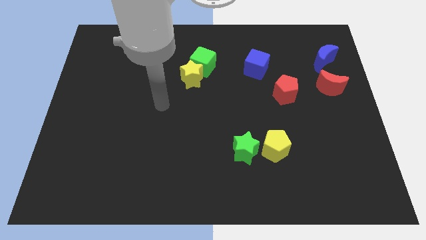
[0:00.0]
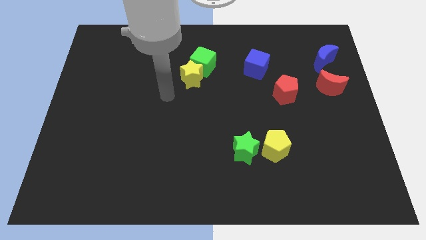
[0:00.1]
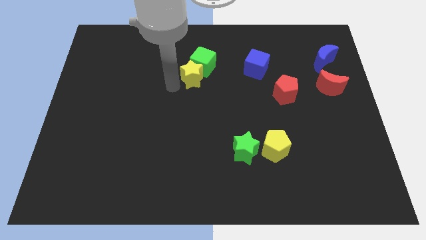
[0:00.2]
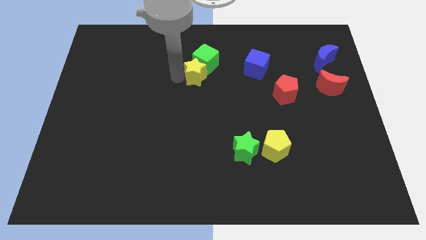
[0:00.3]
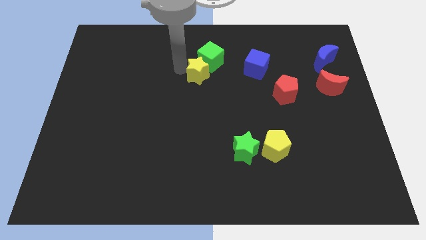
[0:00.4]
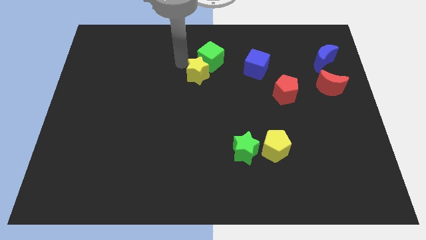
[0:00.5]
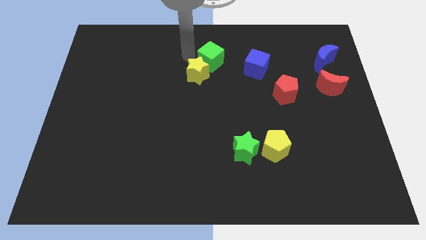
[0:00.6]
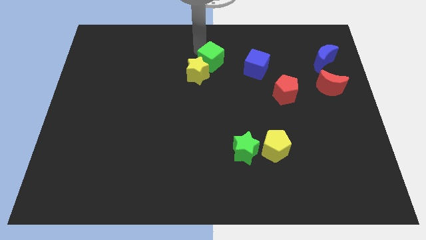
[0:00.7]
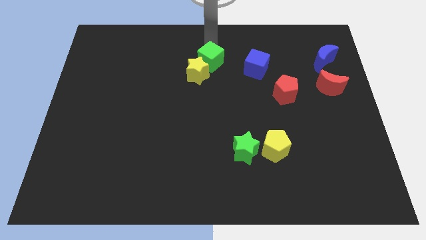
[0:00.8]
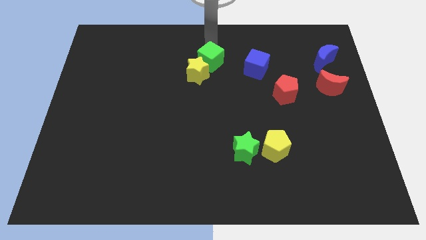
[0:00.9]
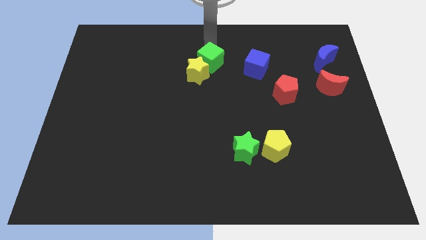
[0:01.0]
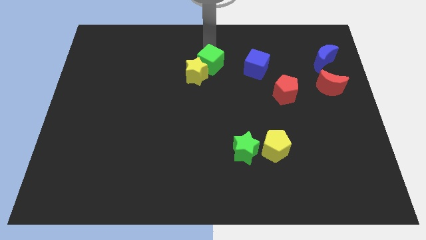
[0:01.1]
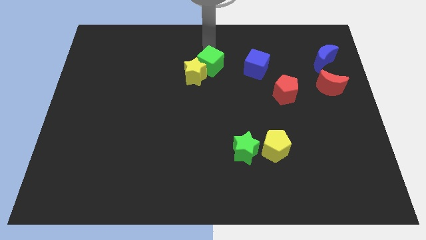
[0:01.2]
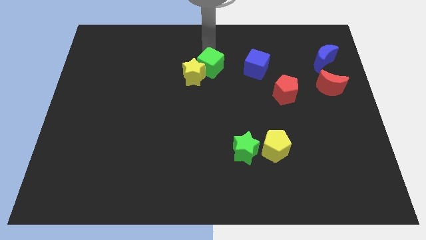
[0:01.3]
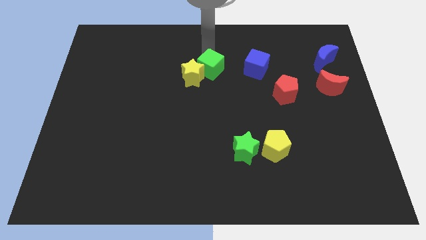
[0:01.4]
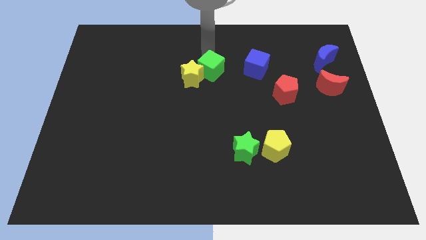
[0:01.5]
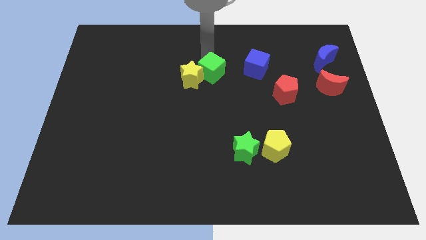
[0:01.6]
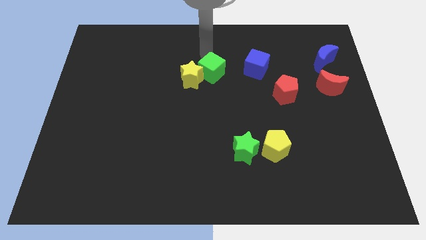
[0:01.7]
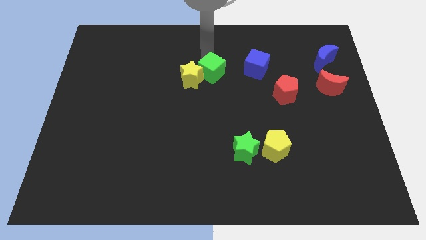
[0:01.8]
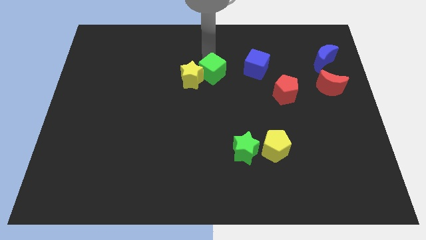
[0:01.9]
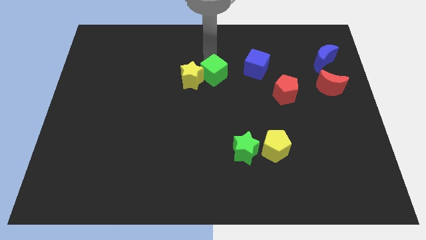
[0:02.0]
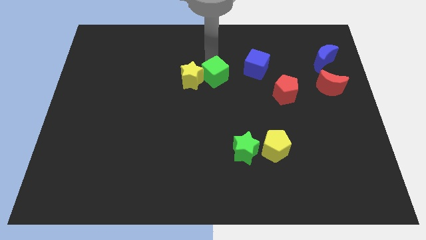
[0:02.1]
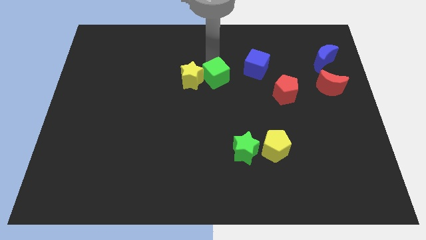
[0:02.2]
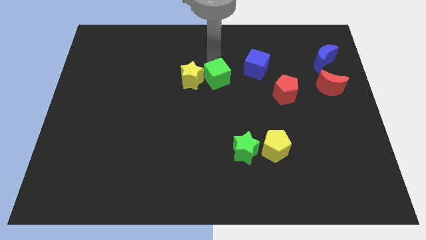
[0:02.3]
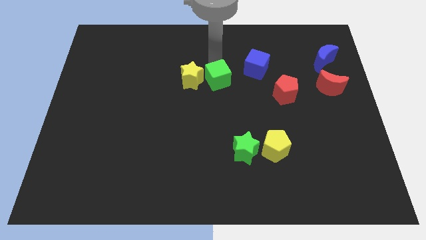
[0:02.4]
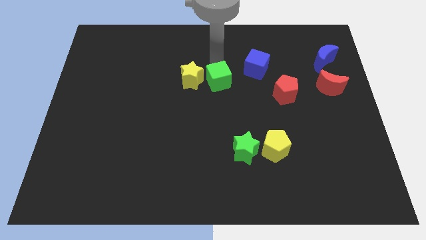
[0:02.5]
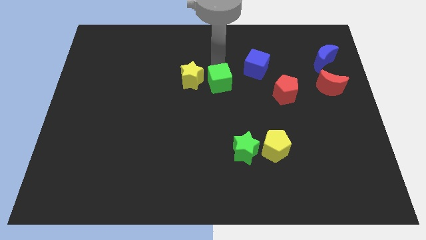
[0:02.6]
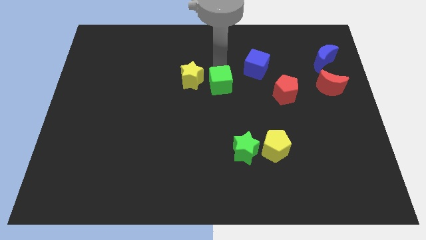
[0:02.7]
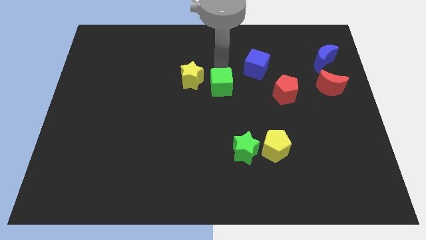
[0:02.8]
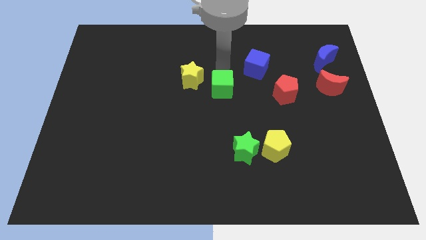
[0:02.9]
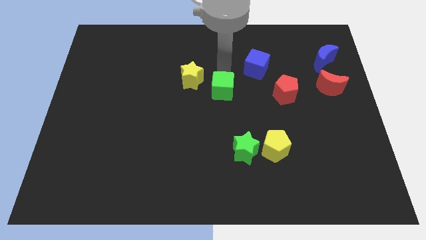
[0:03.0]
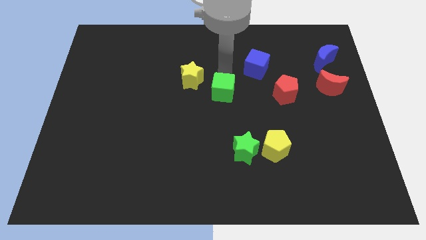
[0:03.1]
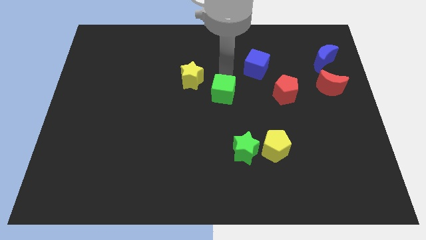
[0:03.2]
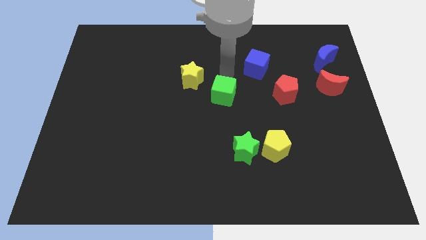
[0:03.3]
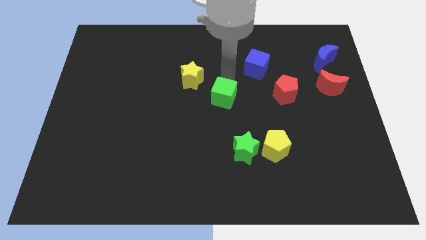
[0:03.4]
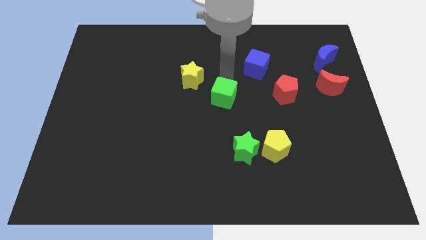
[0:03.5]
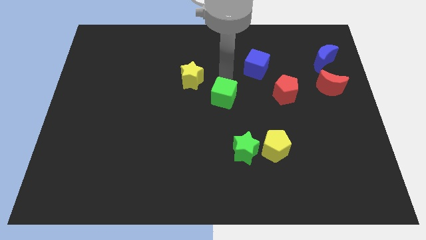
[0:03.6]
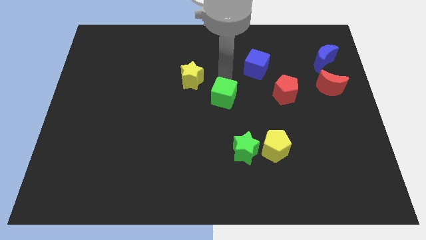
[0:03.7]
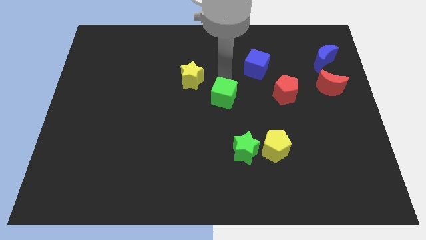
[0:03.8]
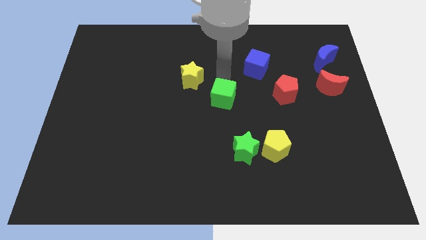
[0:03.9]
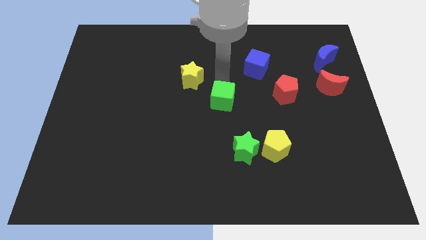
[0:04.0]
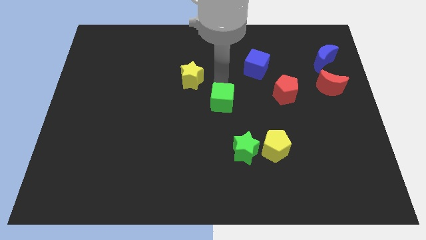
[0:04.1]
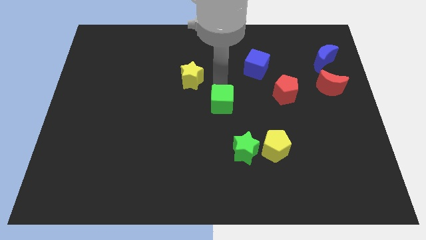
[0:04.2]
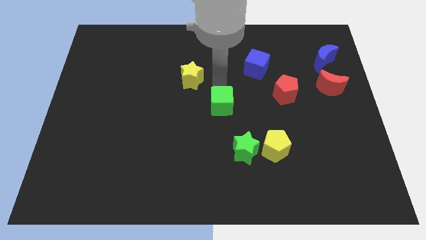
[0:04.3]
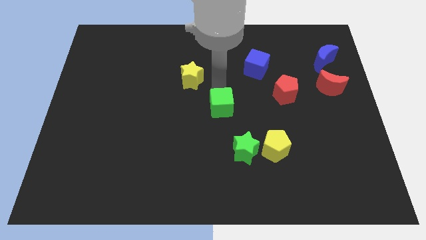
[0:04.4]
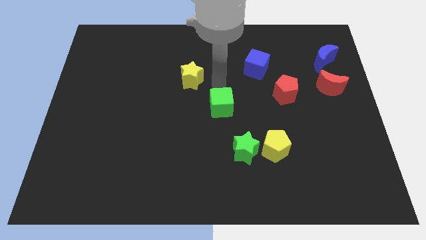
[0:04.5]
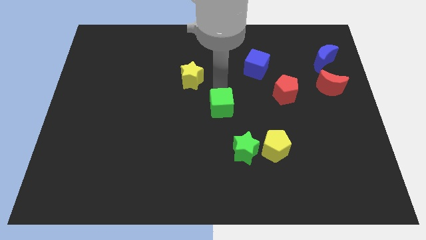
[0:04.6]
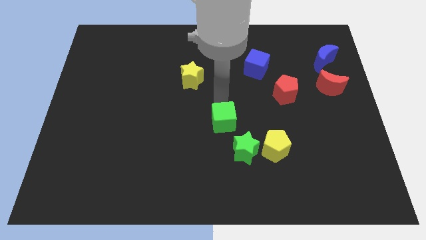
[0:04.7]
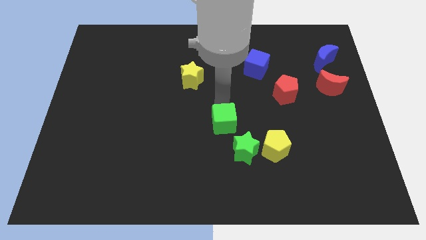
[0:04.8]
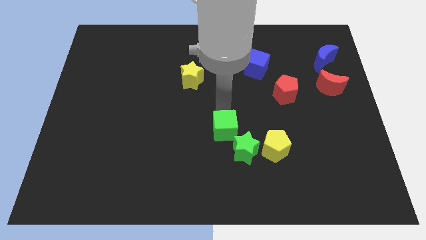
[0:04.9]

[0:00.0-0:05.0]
put the green cube to the left of the yellow pentagon

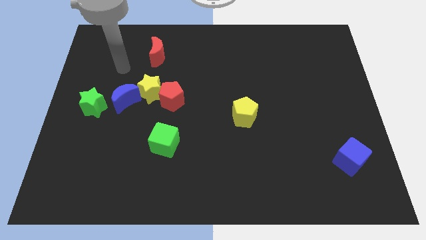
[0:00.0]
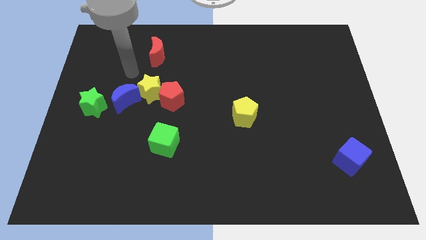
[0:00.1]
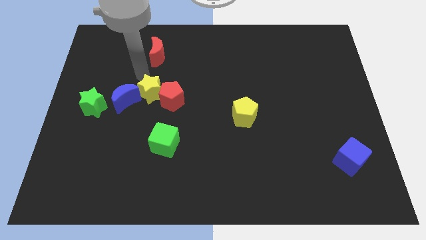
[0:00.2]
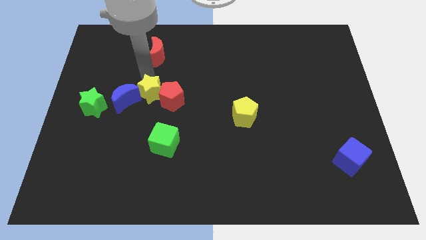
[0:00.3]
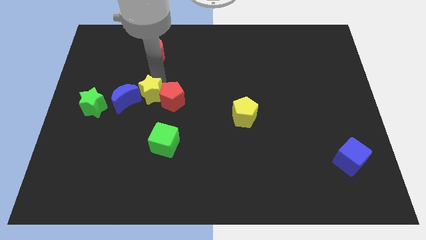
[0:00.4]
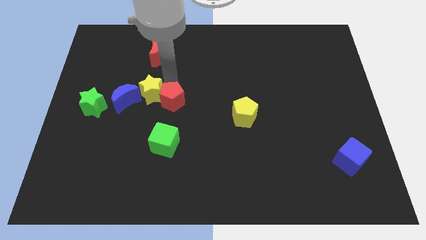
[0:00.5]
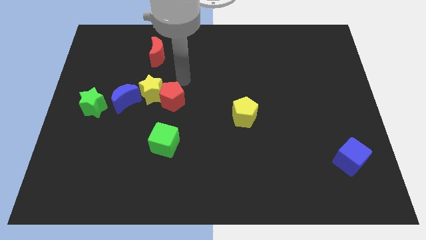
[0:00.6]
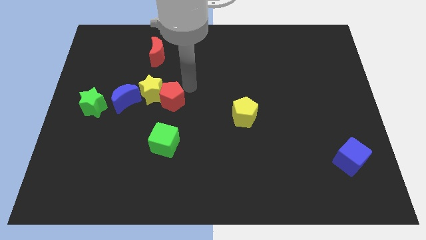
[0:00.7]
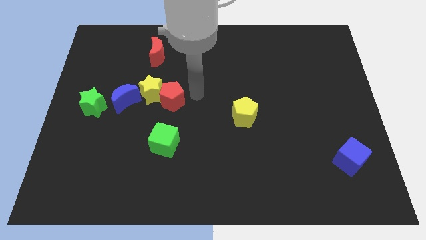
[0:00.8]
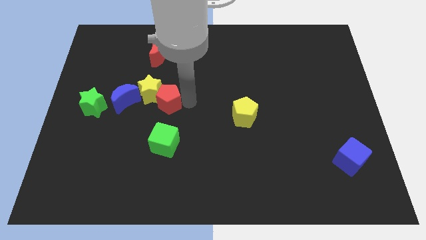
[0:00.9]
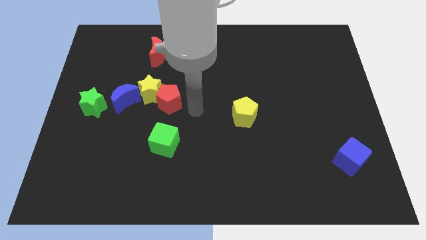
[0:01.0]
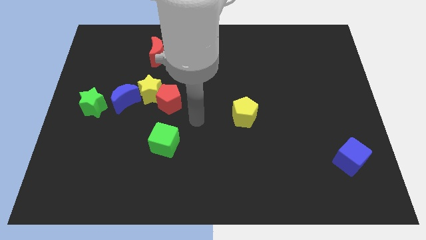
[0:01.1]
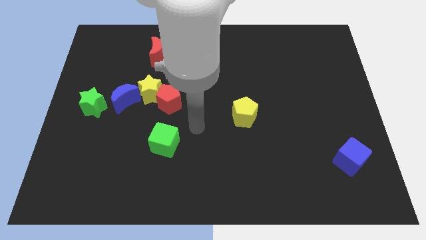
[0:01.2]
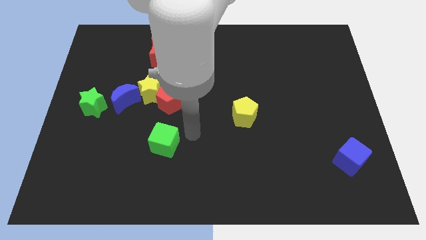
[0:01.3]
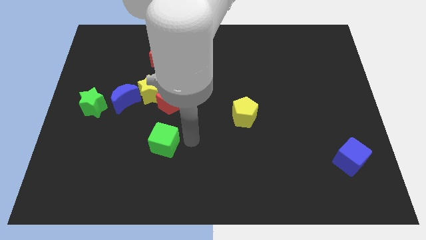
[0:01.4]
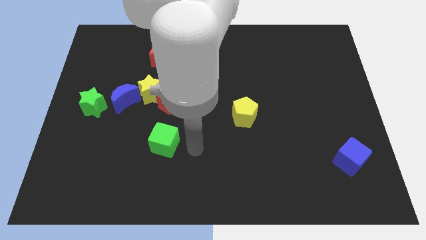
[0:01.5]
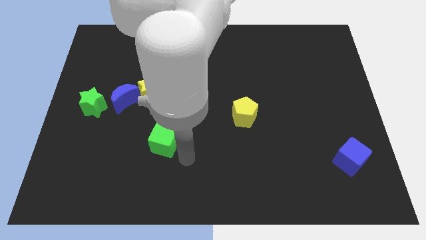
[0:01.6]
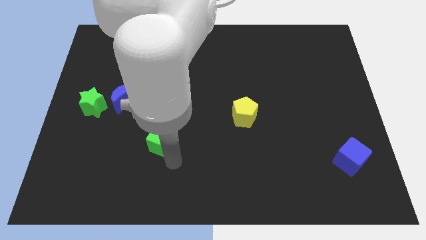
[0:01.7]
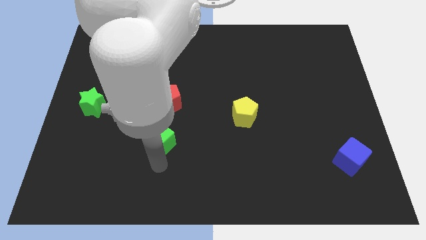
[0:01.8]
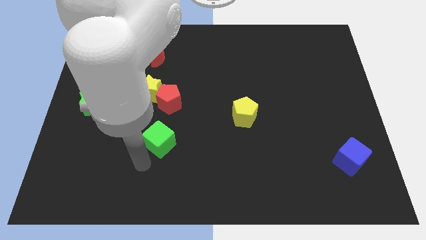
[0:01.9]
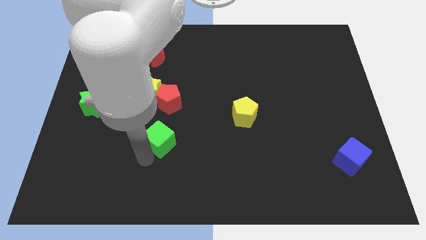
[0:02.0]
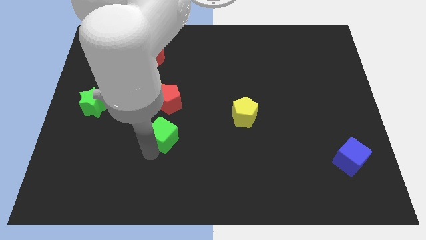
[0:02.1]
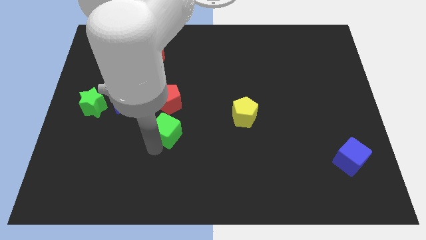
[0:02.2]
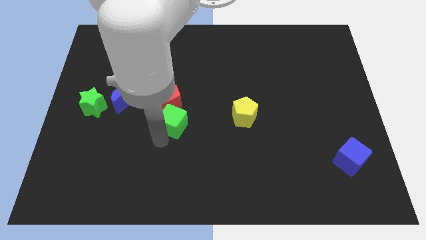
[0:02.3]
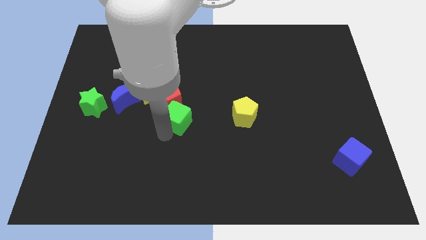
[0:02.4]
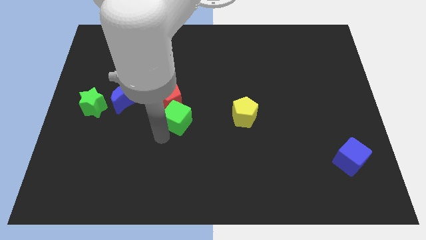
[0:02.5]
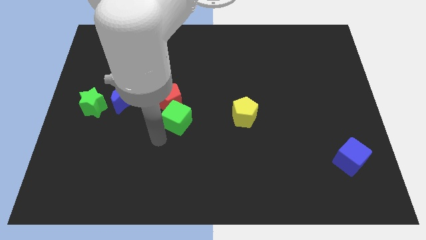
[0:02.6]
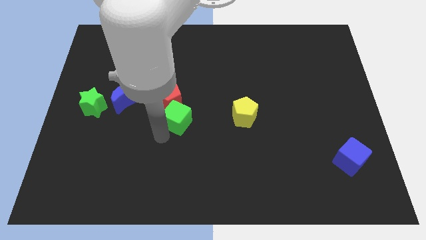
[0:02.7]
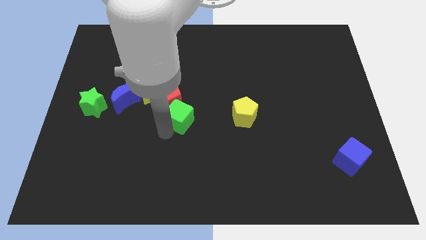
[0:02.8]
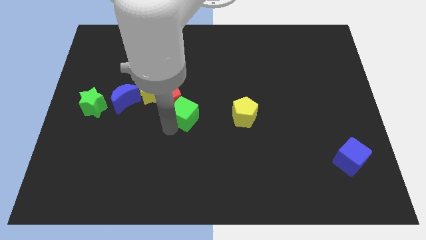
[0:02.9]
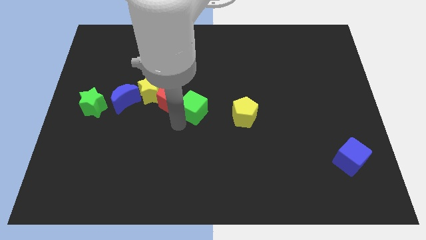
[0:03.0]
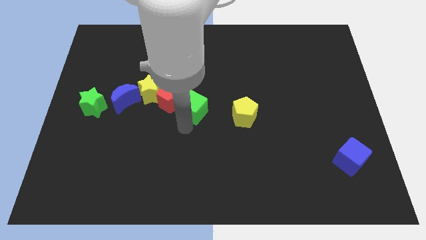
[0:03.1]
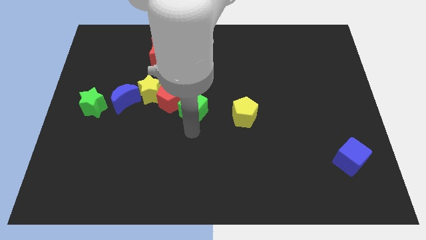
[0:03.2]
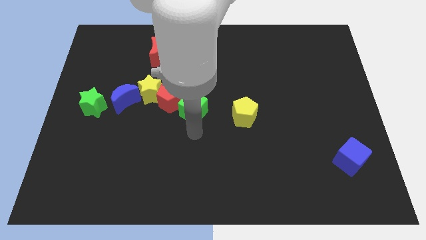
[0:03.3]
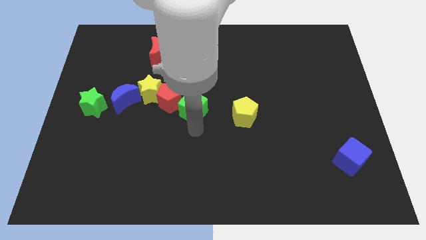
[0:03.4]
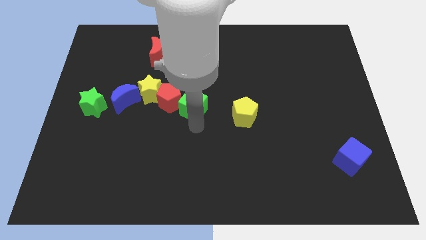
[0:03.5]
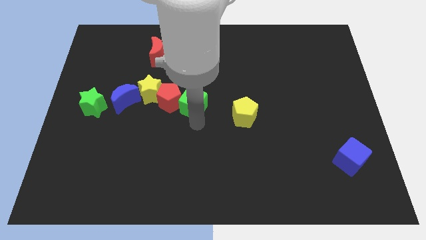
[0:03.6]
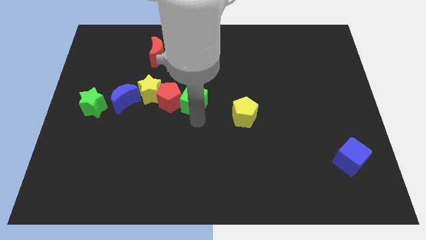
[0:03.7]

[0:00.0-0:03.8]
push the green cube to the top right side of the red pentagon
